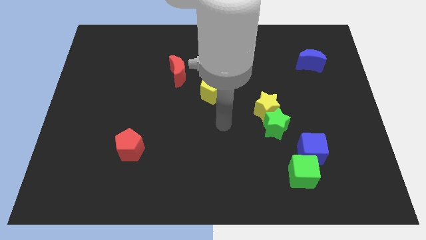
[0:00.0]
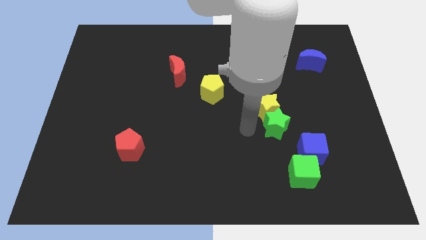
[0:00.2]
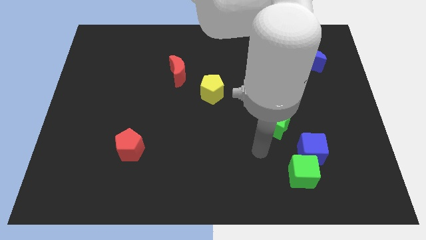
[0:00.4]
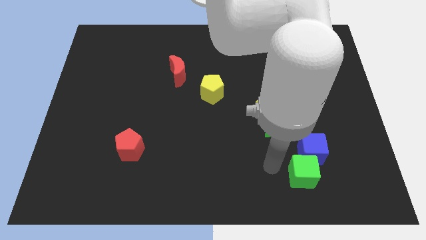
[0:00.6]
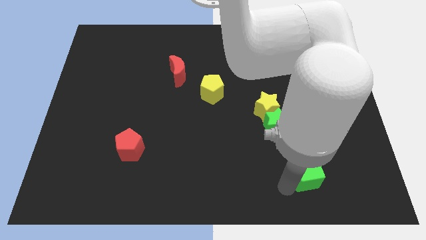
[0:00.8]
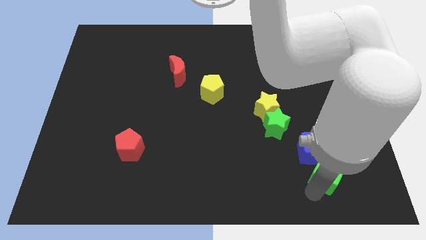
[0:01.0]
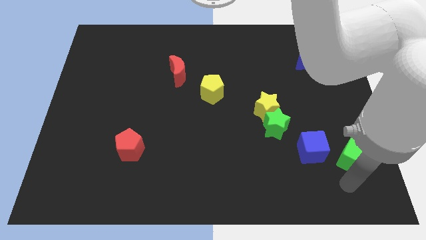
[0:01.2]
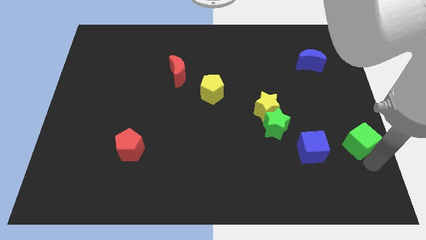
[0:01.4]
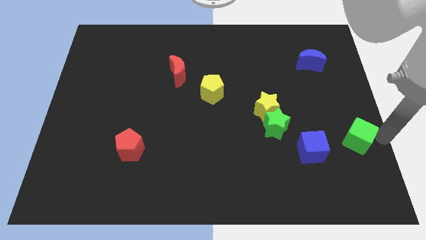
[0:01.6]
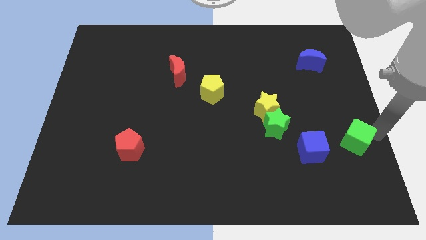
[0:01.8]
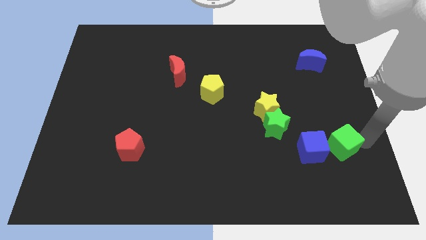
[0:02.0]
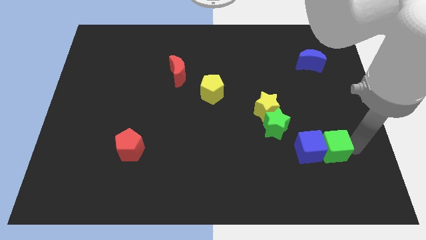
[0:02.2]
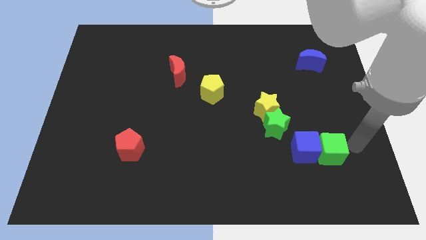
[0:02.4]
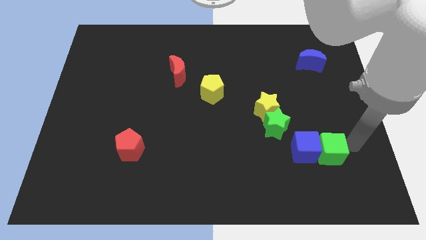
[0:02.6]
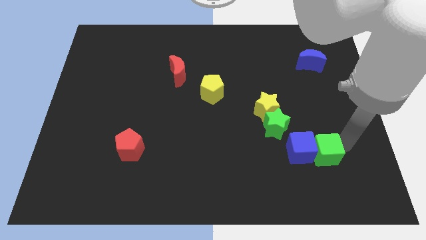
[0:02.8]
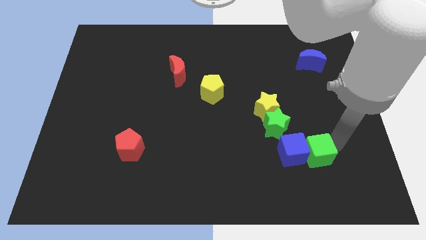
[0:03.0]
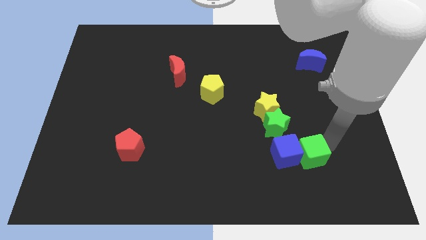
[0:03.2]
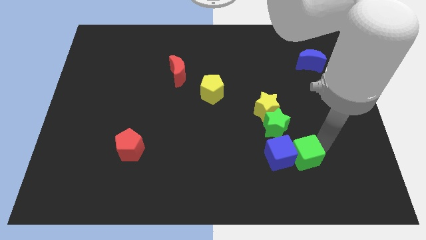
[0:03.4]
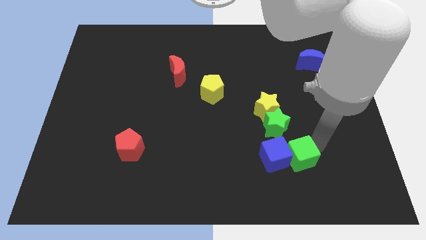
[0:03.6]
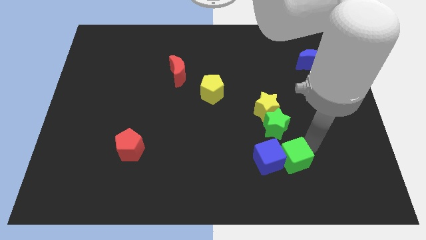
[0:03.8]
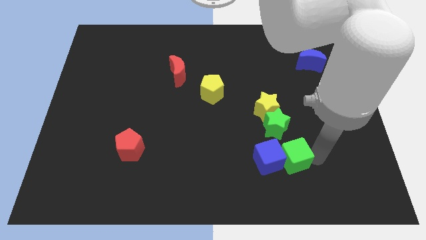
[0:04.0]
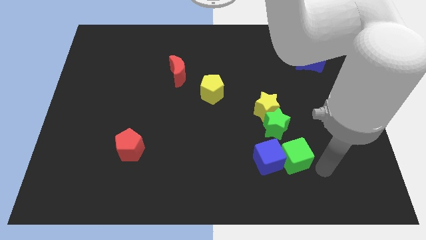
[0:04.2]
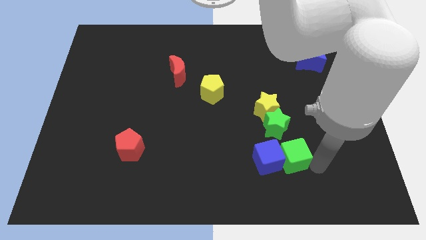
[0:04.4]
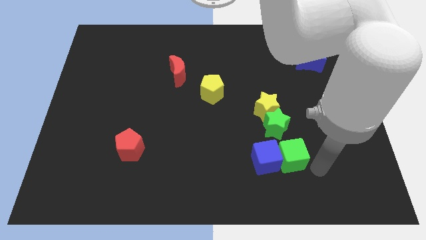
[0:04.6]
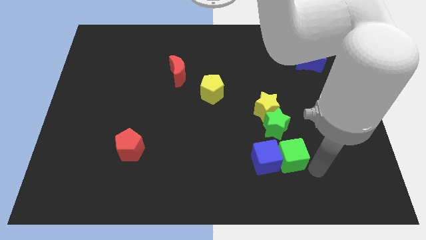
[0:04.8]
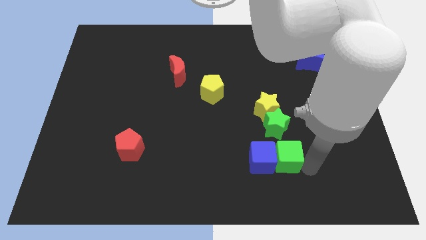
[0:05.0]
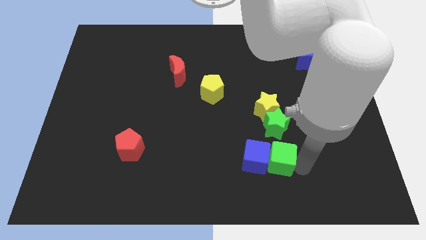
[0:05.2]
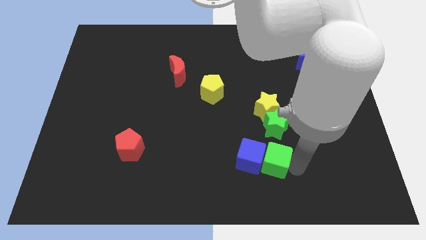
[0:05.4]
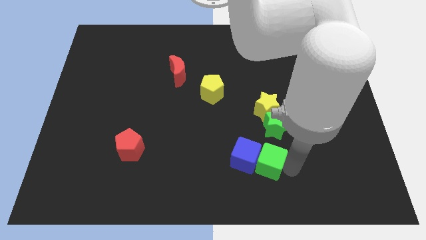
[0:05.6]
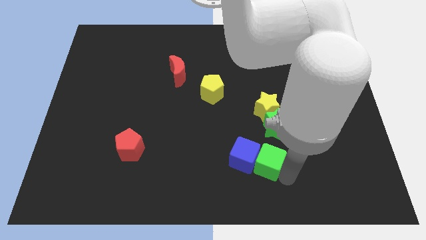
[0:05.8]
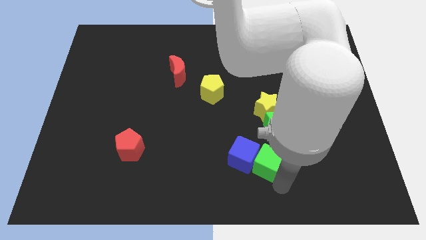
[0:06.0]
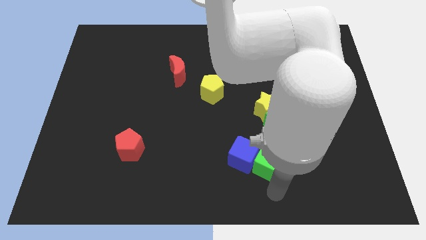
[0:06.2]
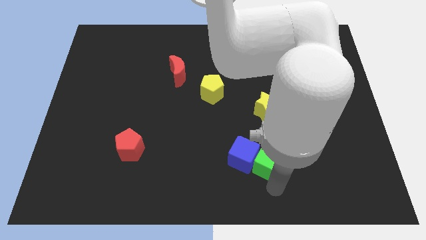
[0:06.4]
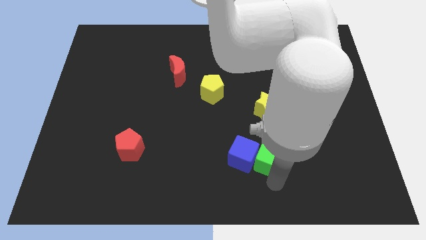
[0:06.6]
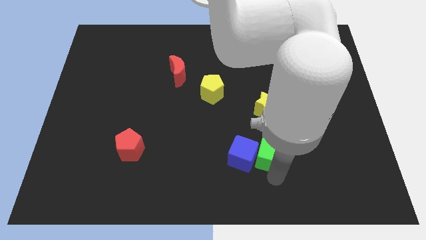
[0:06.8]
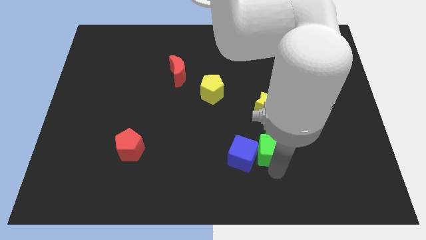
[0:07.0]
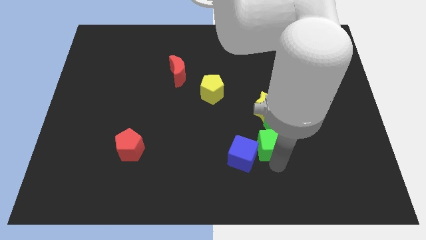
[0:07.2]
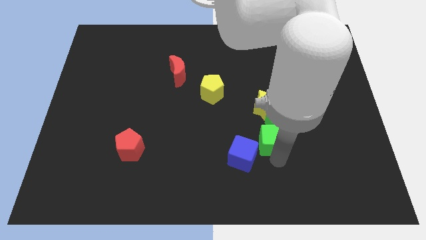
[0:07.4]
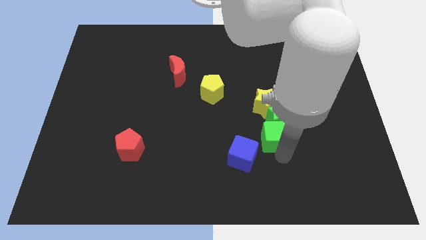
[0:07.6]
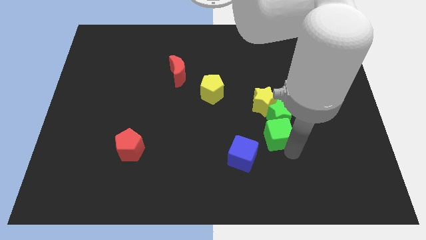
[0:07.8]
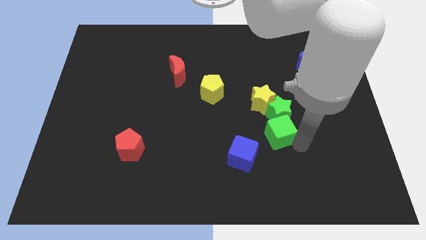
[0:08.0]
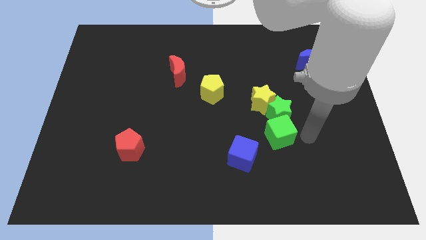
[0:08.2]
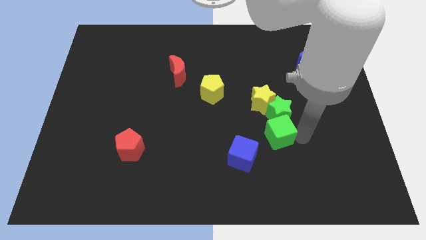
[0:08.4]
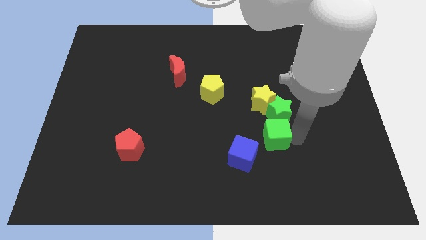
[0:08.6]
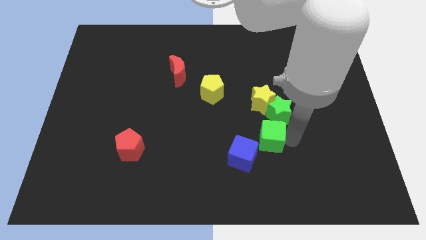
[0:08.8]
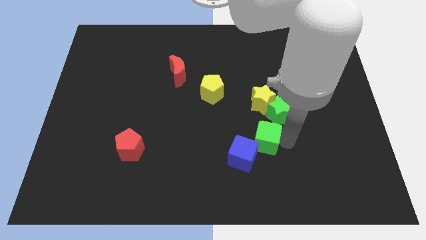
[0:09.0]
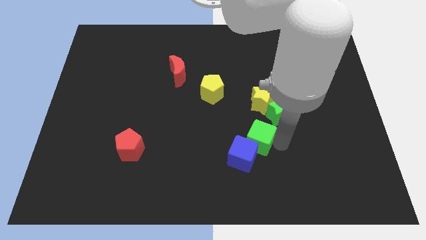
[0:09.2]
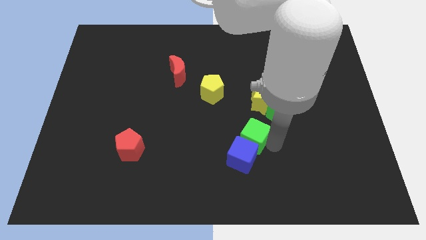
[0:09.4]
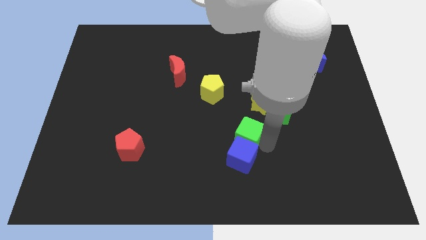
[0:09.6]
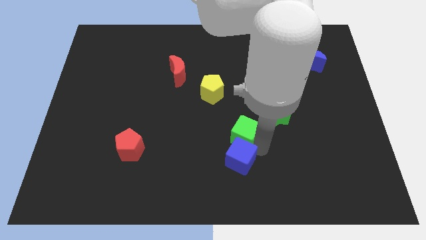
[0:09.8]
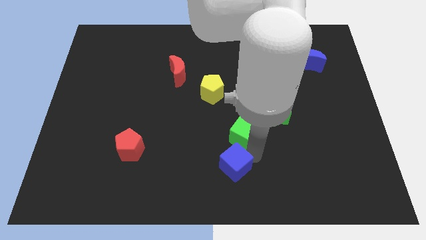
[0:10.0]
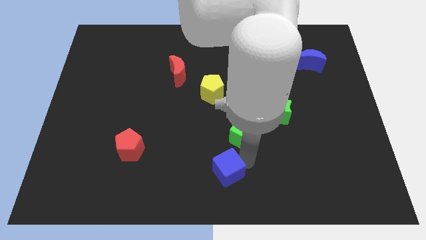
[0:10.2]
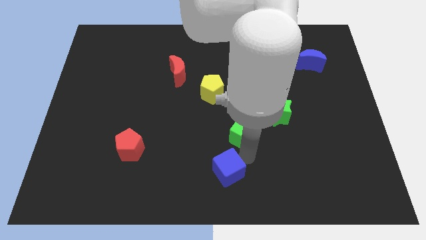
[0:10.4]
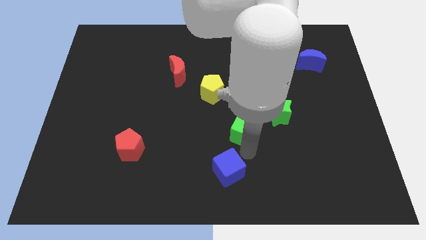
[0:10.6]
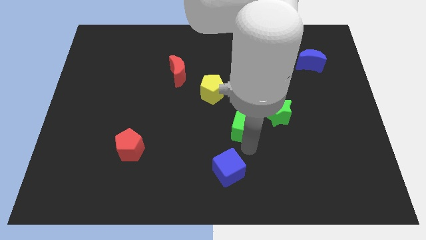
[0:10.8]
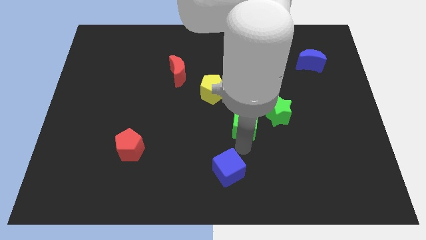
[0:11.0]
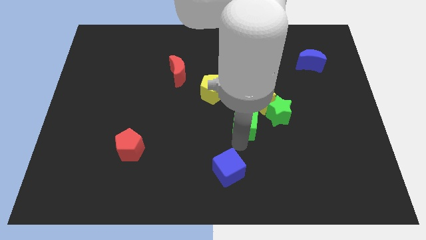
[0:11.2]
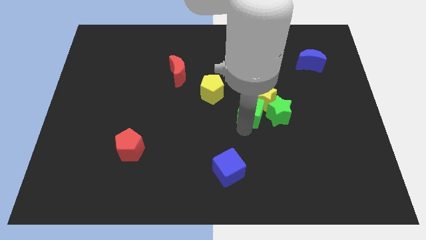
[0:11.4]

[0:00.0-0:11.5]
slide the green cube to the top left of the green star
